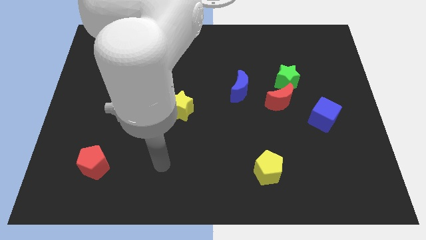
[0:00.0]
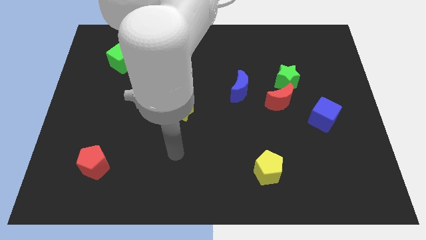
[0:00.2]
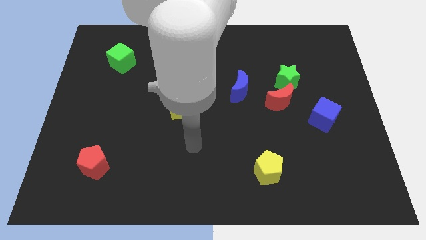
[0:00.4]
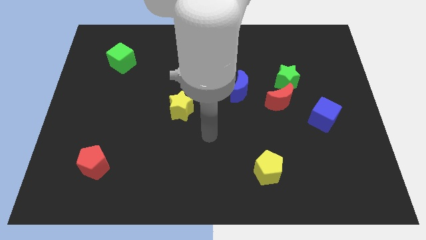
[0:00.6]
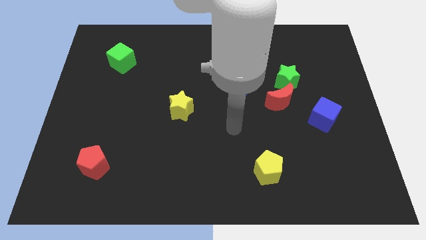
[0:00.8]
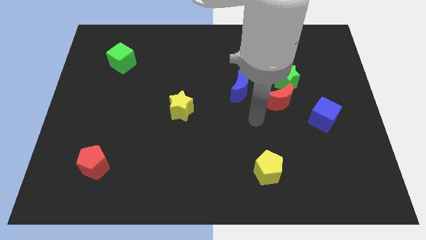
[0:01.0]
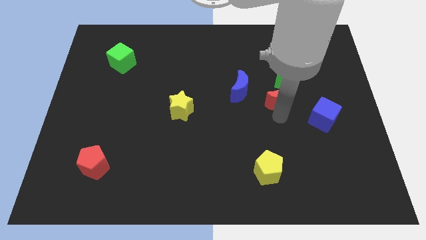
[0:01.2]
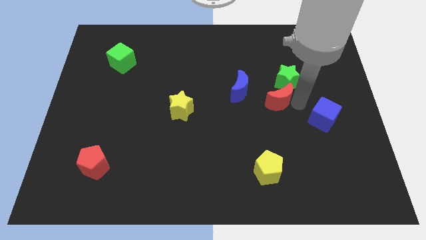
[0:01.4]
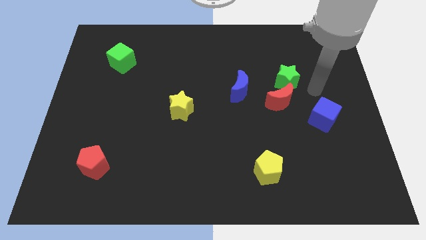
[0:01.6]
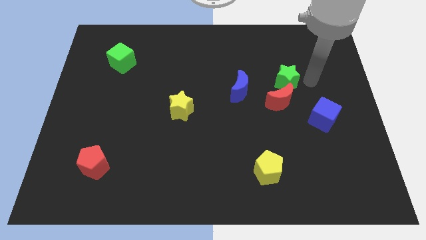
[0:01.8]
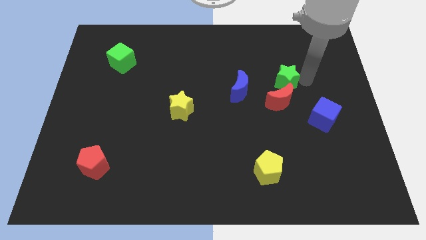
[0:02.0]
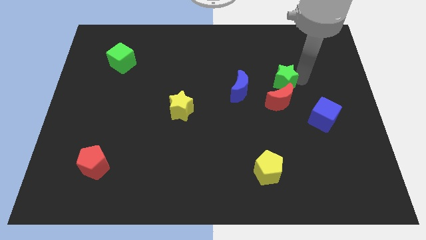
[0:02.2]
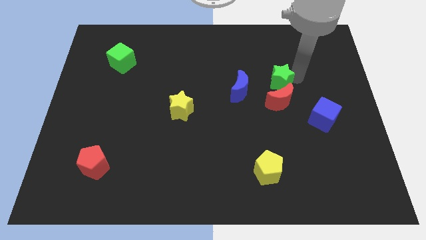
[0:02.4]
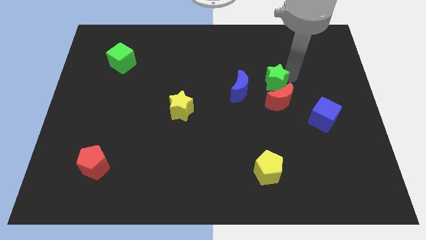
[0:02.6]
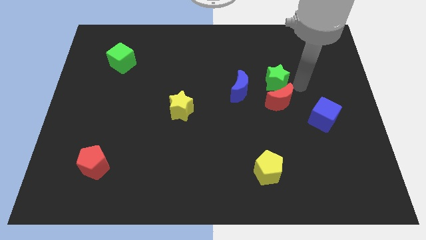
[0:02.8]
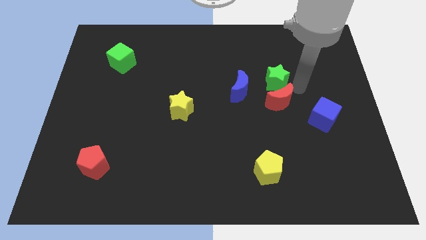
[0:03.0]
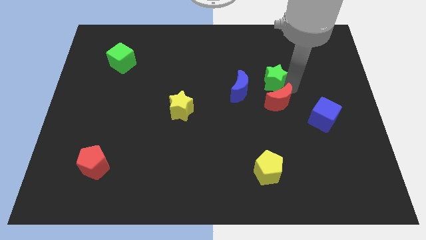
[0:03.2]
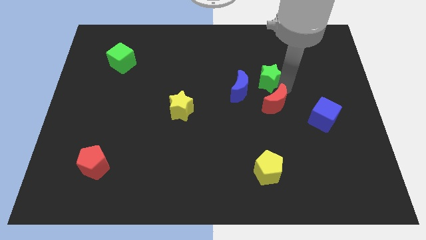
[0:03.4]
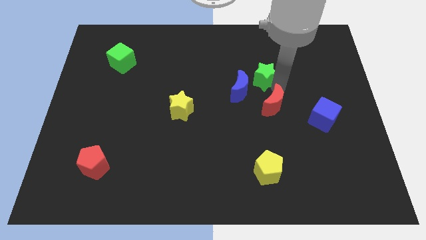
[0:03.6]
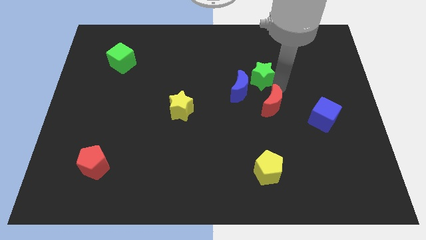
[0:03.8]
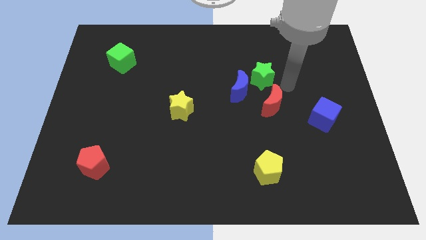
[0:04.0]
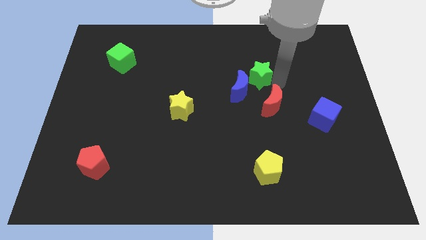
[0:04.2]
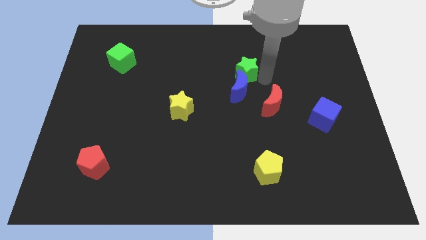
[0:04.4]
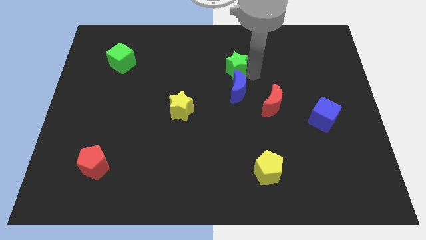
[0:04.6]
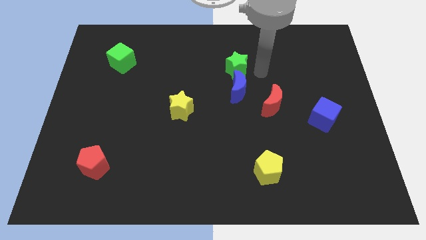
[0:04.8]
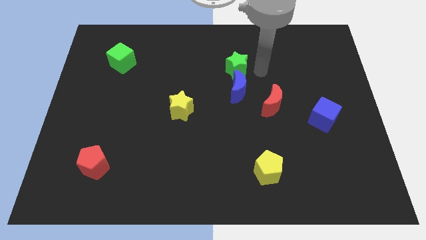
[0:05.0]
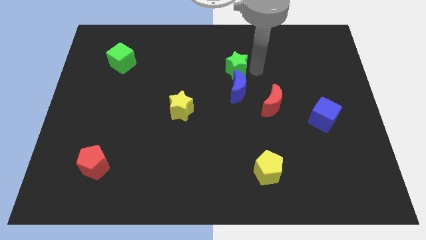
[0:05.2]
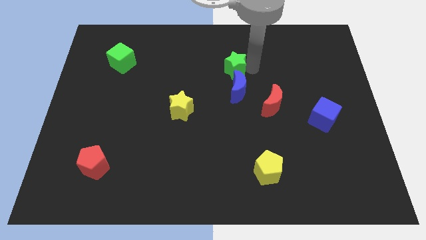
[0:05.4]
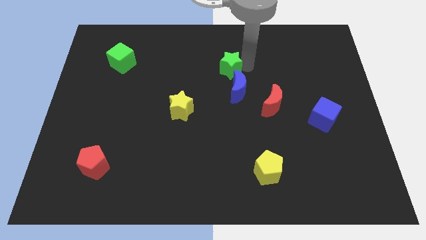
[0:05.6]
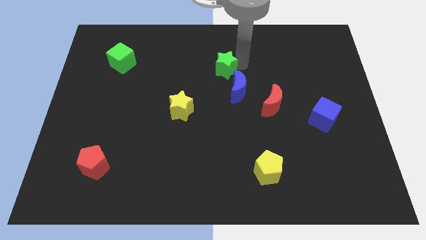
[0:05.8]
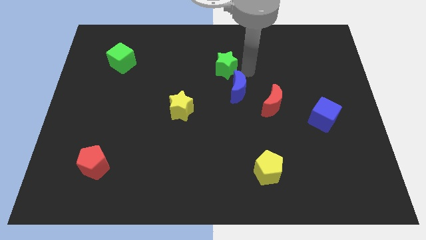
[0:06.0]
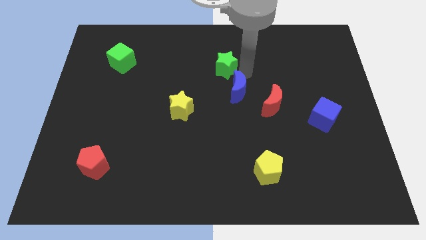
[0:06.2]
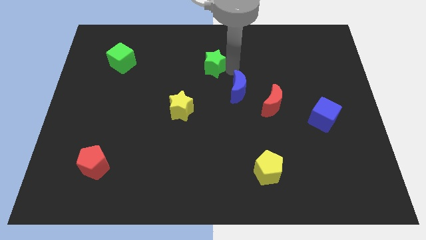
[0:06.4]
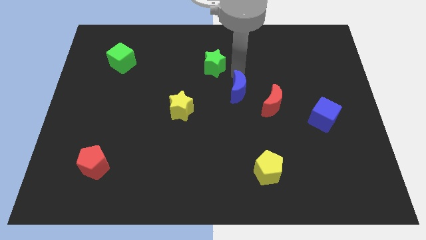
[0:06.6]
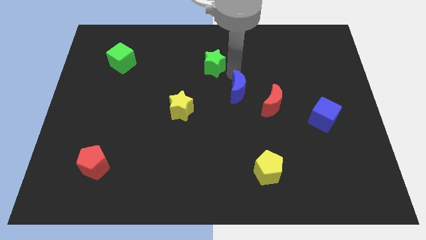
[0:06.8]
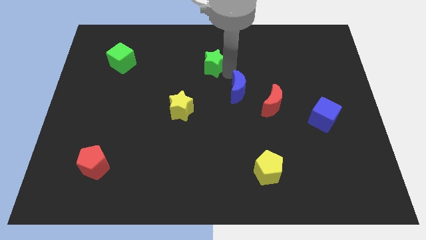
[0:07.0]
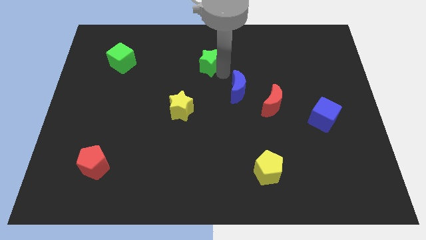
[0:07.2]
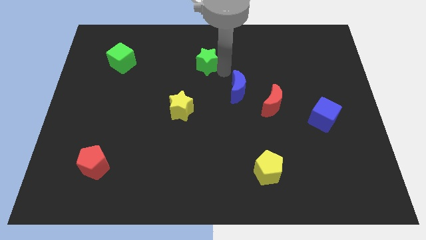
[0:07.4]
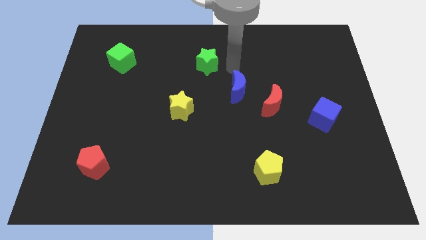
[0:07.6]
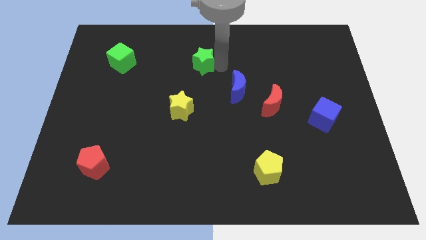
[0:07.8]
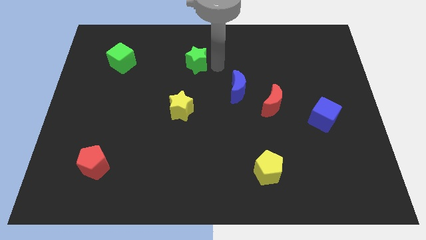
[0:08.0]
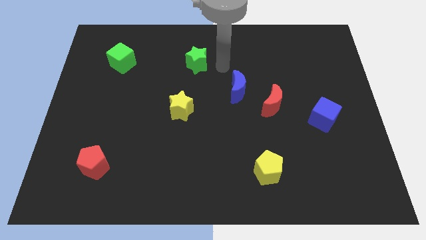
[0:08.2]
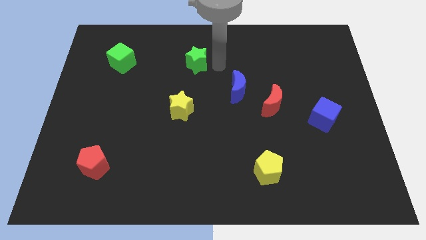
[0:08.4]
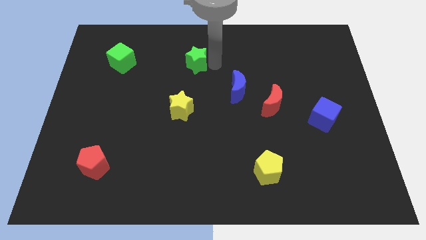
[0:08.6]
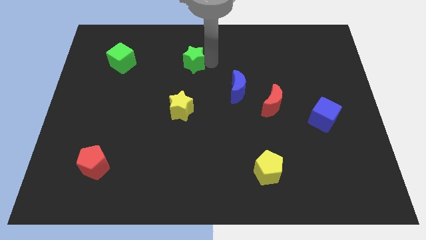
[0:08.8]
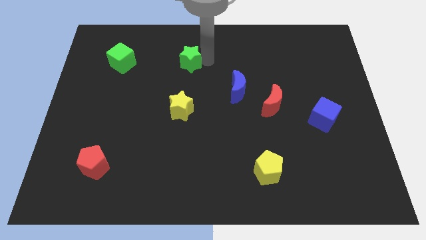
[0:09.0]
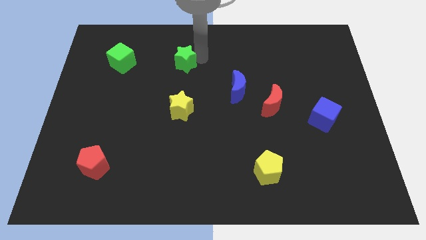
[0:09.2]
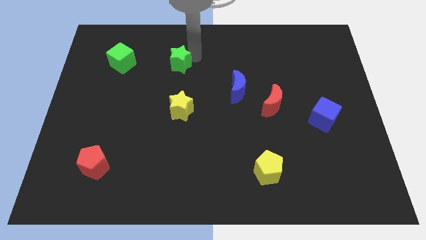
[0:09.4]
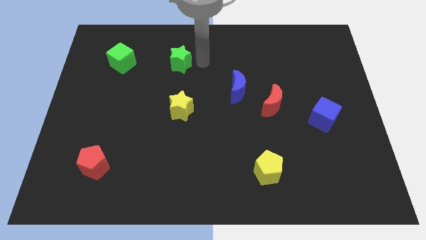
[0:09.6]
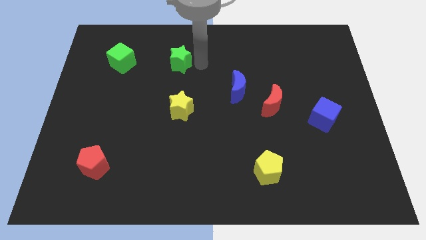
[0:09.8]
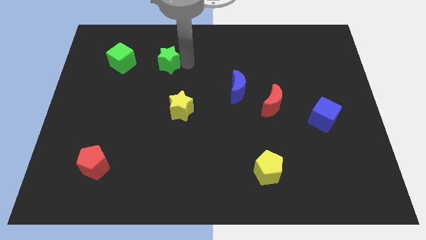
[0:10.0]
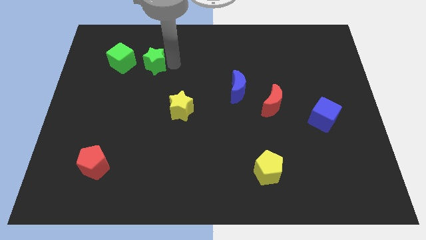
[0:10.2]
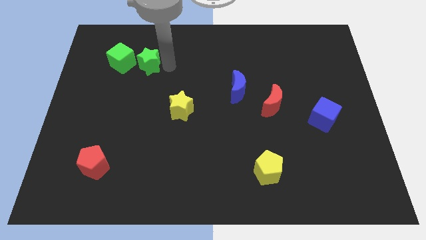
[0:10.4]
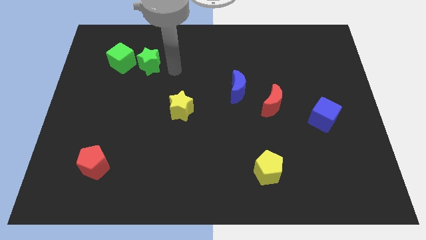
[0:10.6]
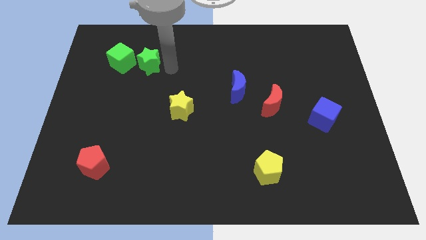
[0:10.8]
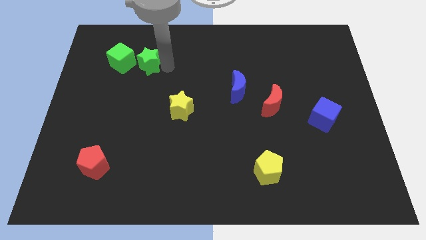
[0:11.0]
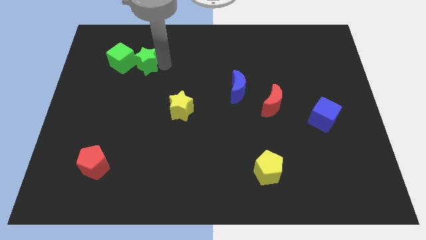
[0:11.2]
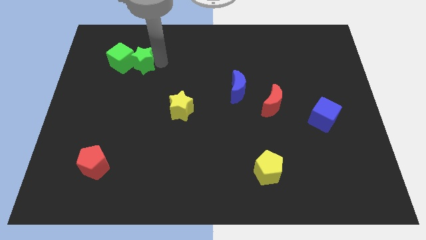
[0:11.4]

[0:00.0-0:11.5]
push the green star towards the green cube

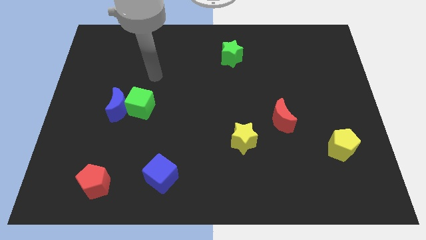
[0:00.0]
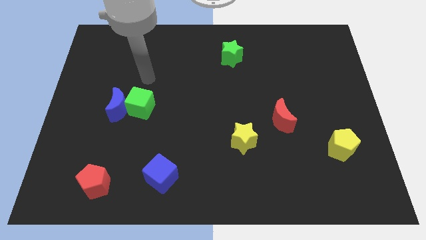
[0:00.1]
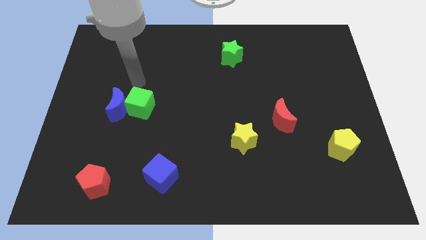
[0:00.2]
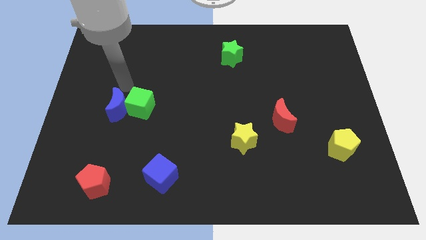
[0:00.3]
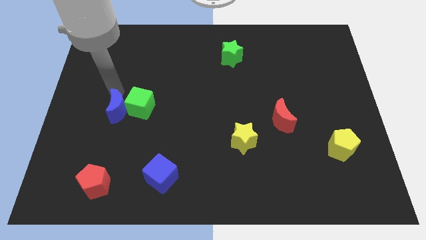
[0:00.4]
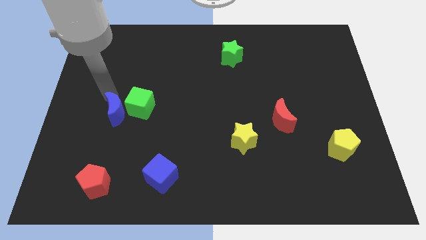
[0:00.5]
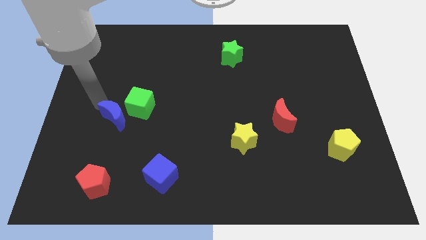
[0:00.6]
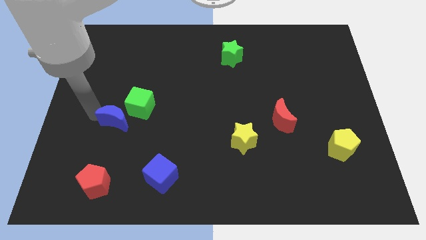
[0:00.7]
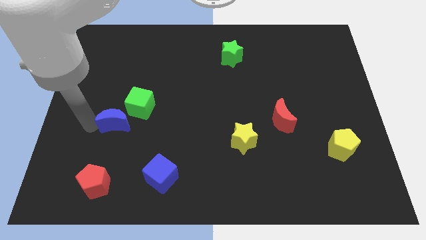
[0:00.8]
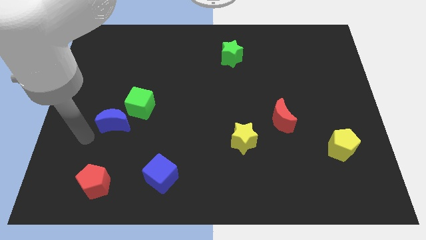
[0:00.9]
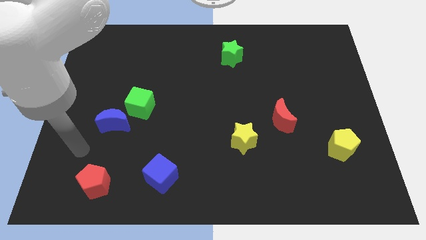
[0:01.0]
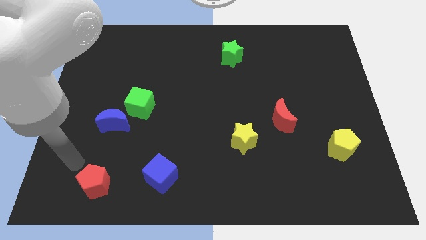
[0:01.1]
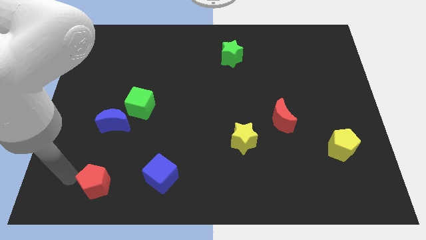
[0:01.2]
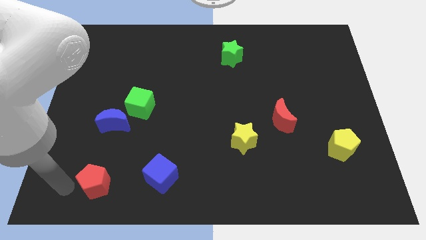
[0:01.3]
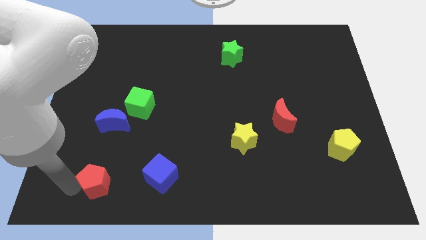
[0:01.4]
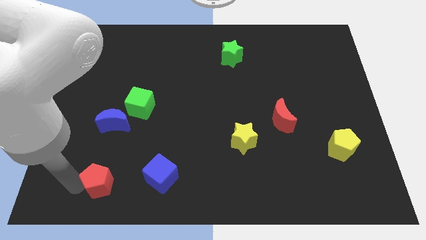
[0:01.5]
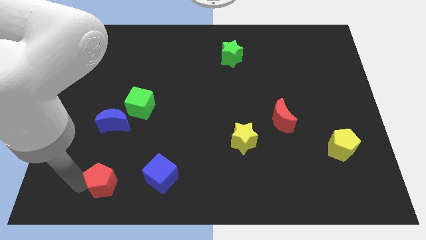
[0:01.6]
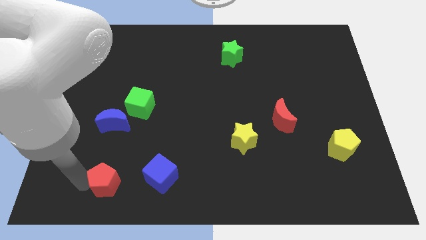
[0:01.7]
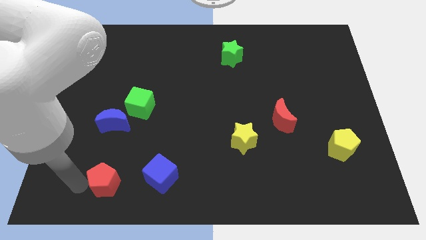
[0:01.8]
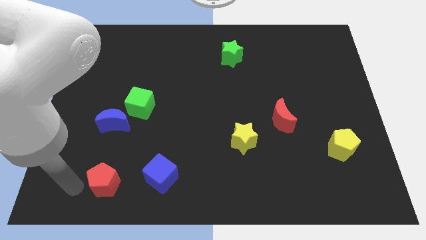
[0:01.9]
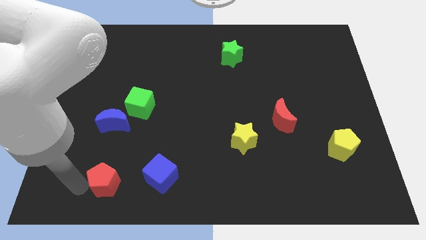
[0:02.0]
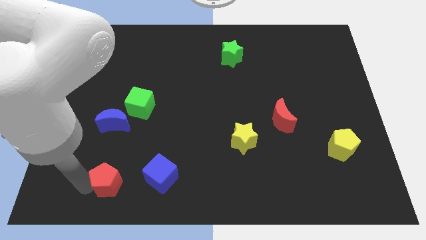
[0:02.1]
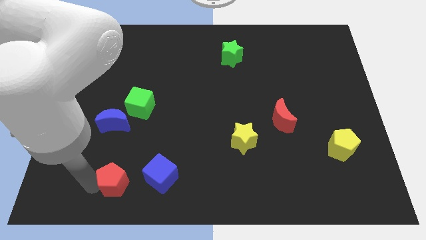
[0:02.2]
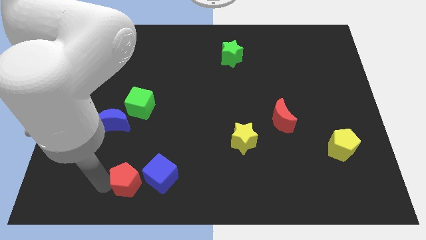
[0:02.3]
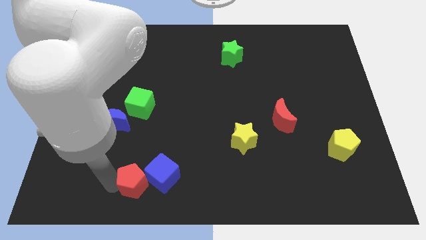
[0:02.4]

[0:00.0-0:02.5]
put the red pentagon towards the blue cube
